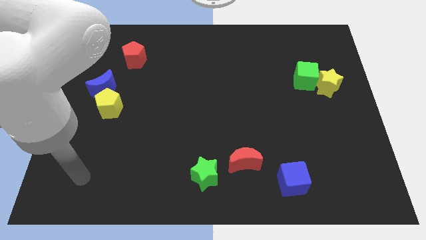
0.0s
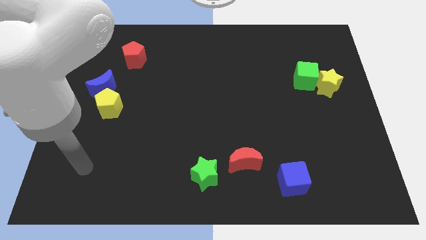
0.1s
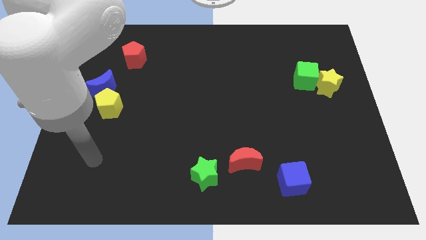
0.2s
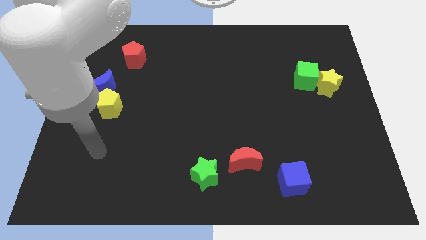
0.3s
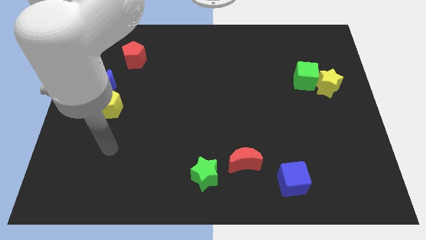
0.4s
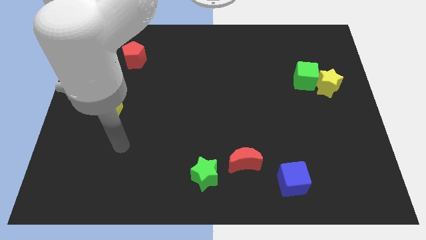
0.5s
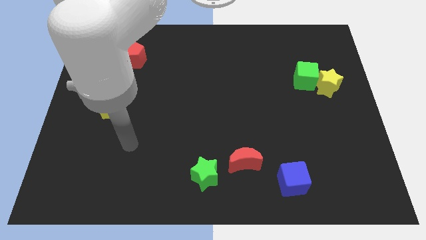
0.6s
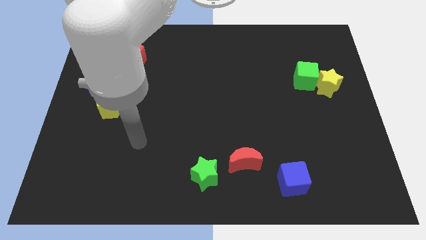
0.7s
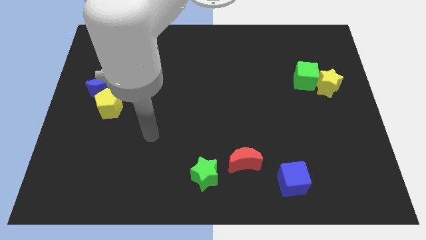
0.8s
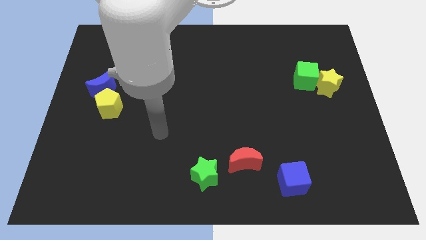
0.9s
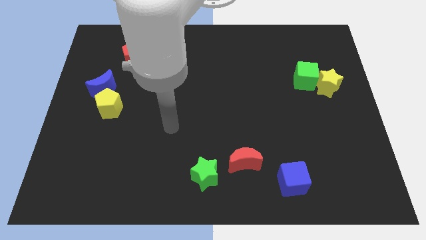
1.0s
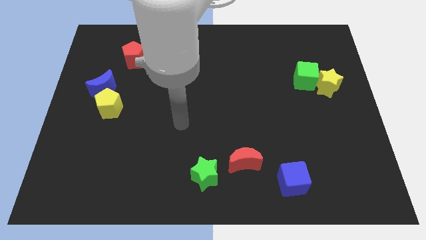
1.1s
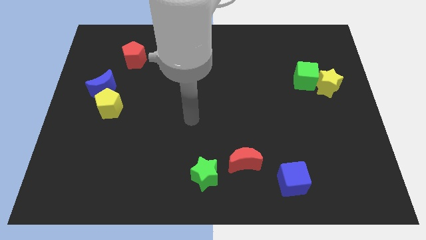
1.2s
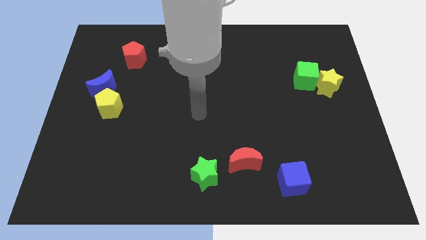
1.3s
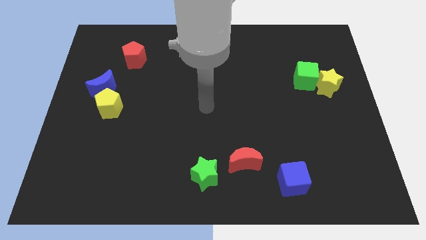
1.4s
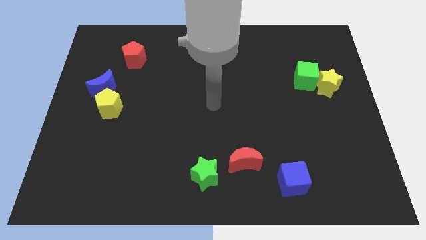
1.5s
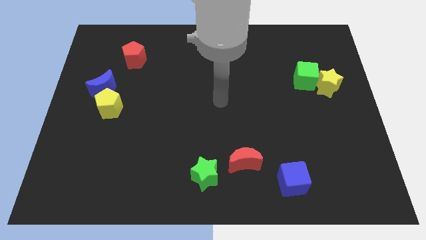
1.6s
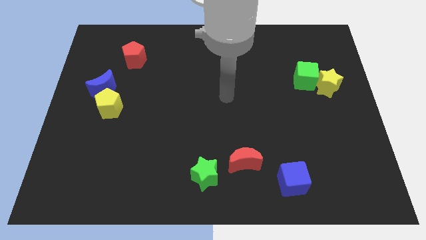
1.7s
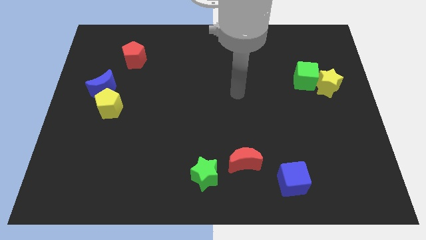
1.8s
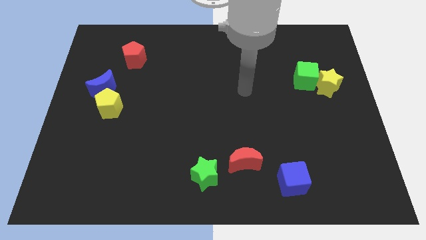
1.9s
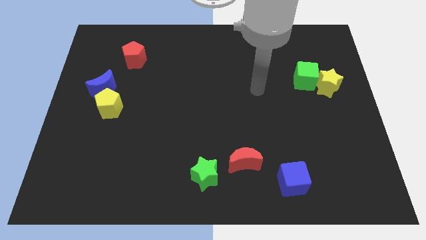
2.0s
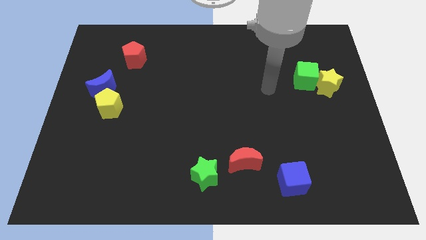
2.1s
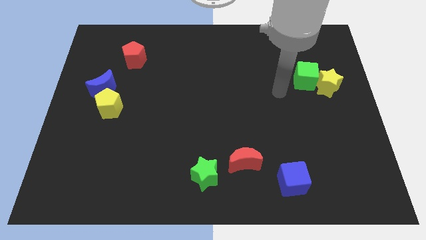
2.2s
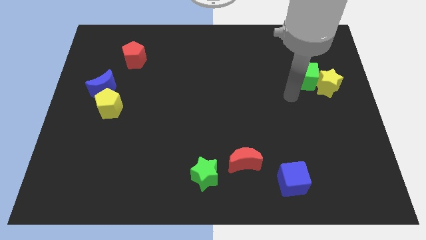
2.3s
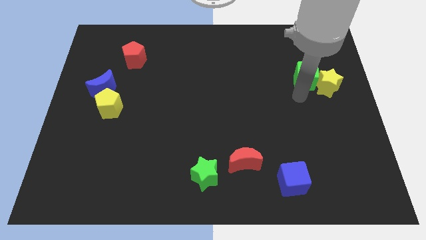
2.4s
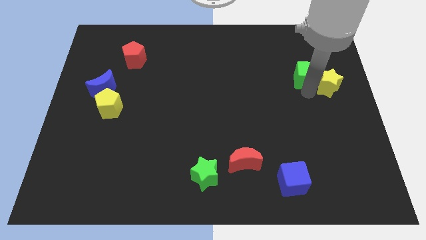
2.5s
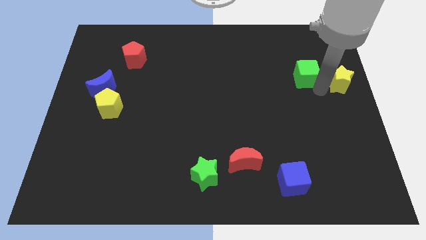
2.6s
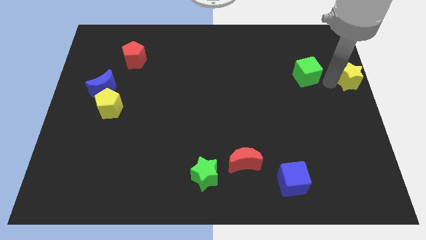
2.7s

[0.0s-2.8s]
pull the green cube apart from the yellow star

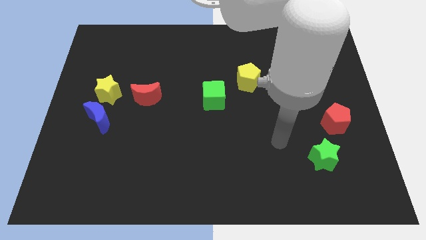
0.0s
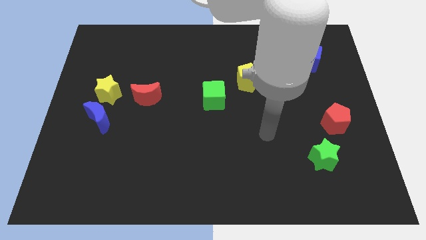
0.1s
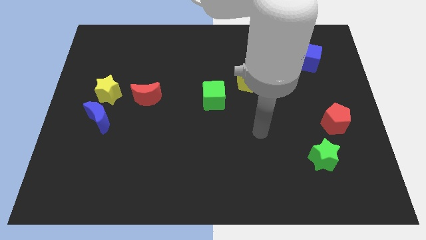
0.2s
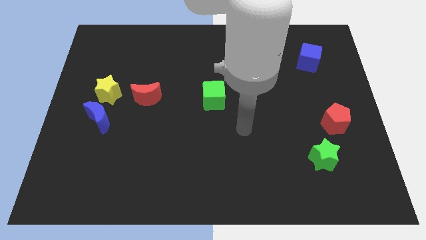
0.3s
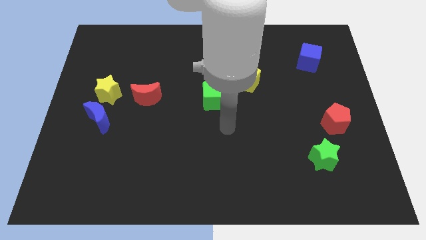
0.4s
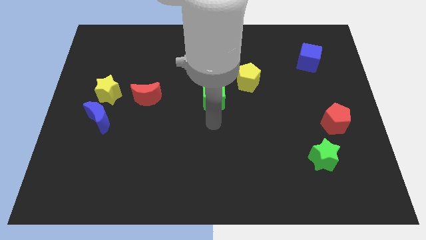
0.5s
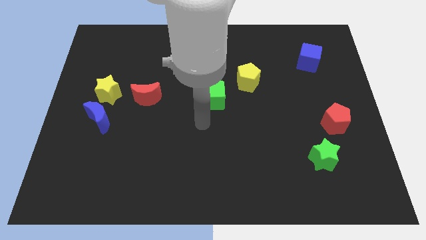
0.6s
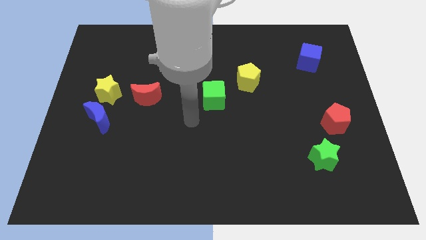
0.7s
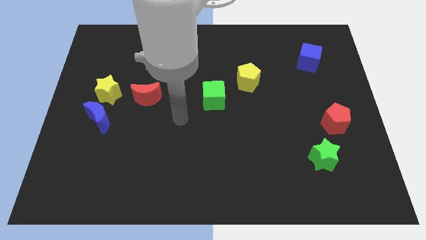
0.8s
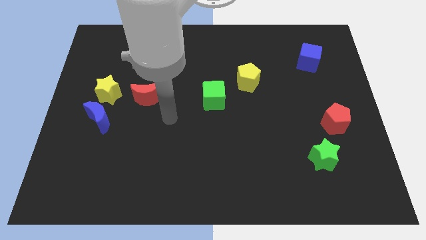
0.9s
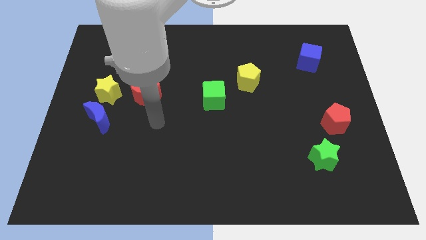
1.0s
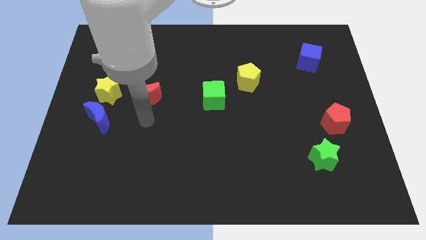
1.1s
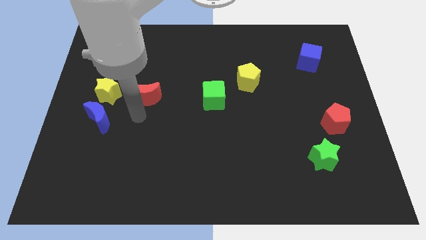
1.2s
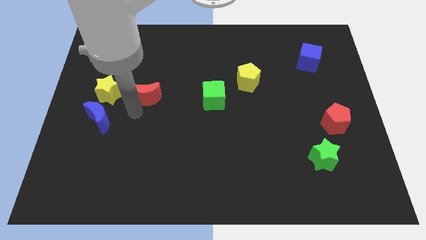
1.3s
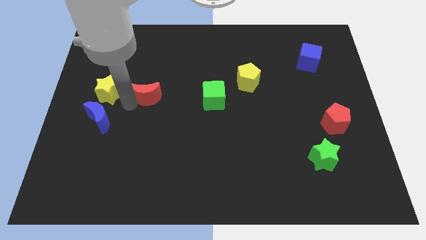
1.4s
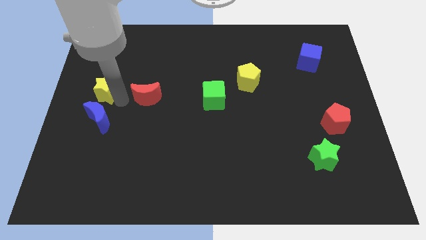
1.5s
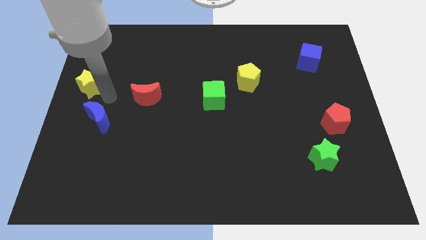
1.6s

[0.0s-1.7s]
separate the blue moon from the yellow star

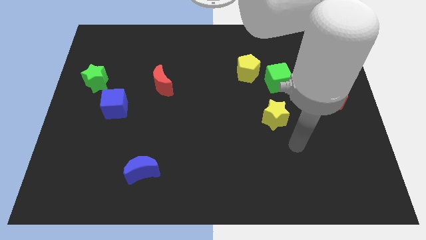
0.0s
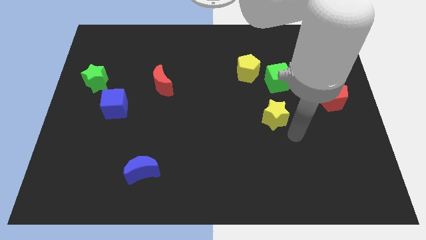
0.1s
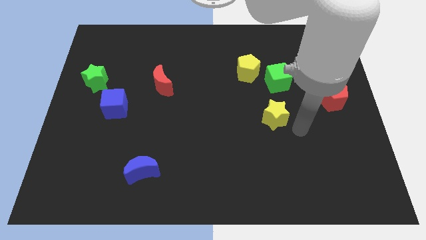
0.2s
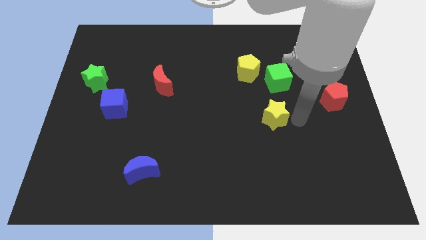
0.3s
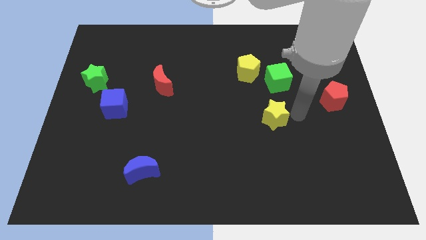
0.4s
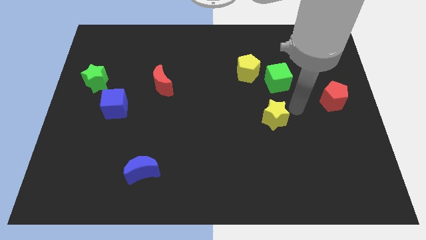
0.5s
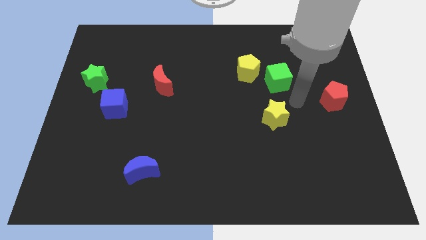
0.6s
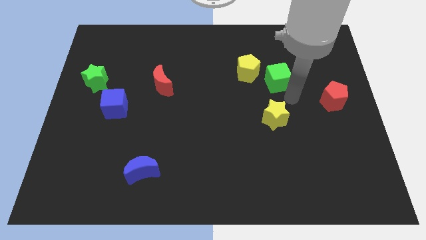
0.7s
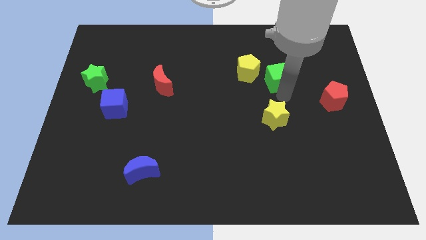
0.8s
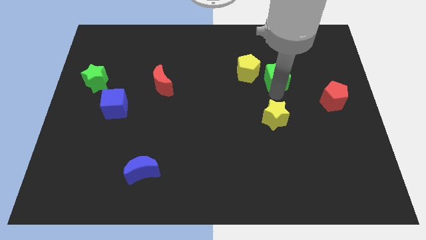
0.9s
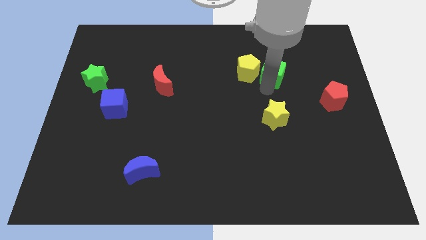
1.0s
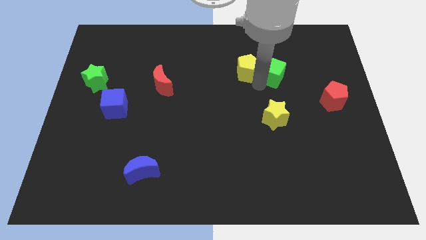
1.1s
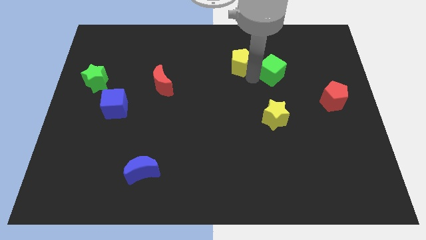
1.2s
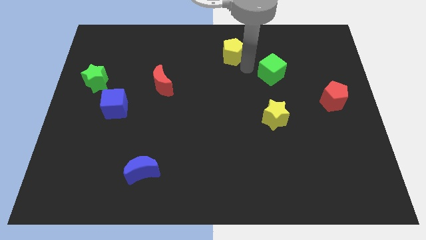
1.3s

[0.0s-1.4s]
separate the green cube from the yellow pentagon

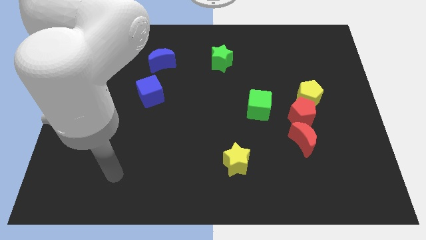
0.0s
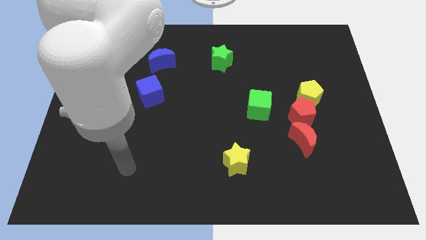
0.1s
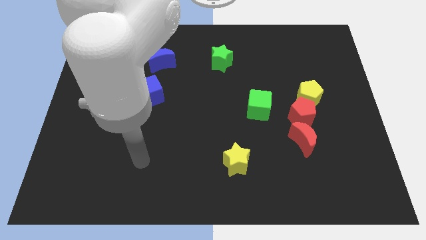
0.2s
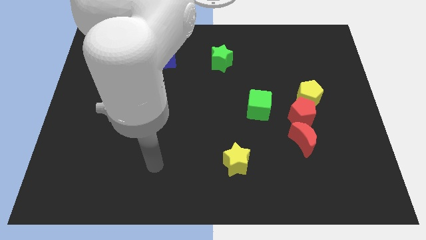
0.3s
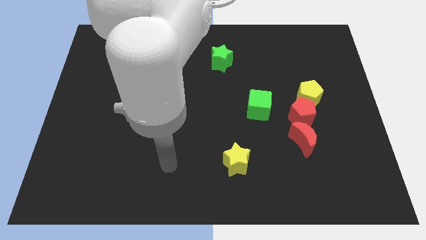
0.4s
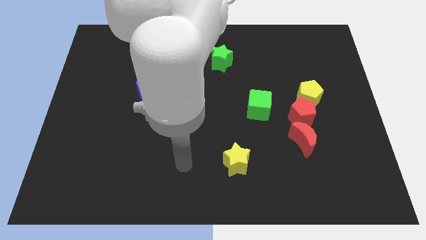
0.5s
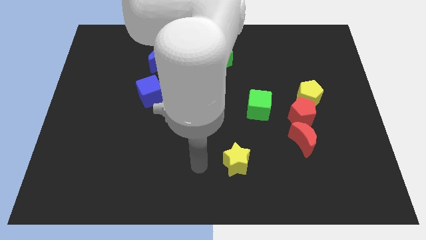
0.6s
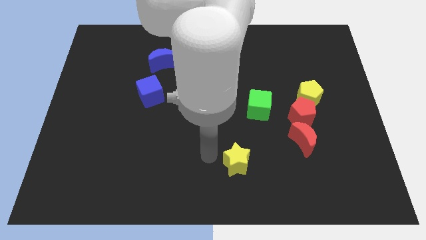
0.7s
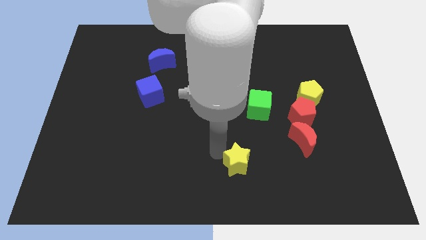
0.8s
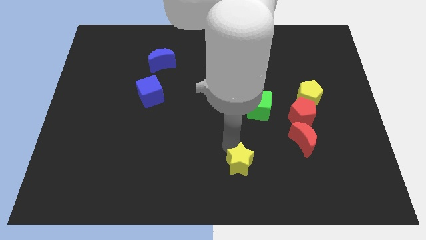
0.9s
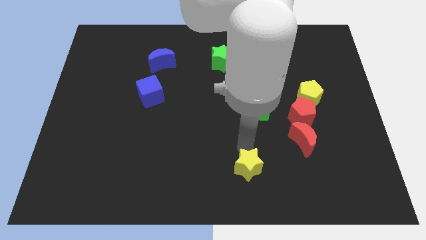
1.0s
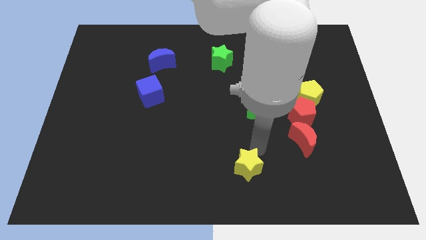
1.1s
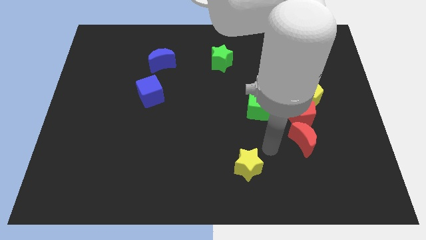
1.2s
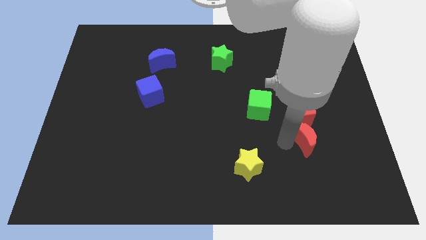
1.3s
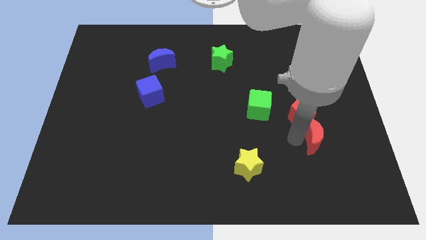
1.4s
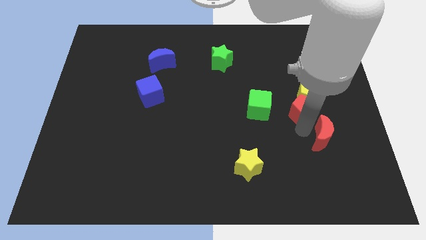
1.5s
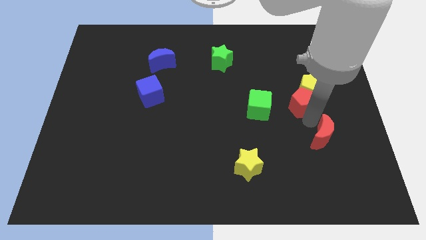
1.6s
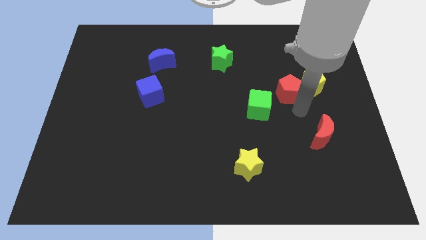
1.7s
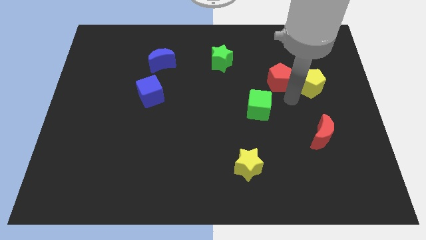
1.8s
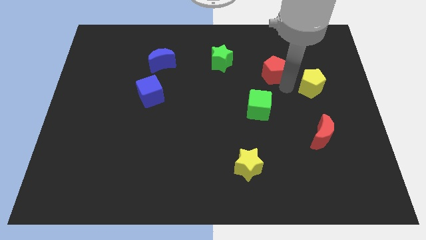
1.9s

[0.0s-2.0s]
move the yellow pentagon away from the red pentagon

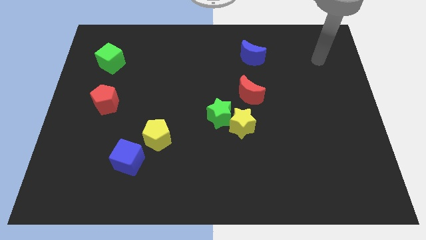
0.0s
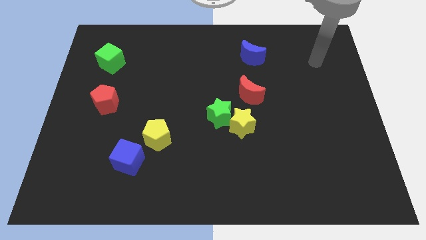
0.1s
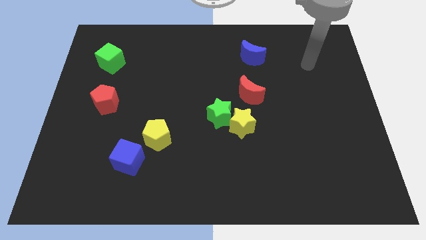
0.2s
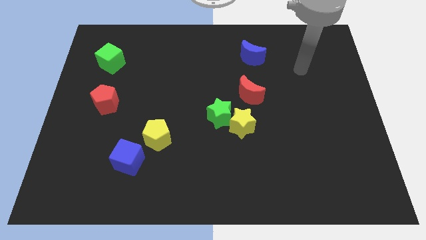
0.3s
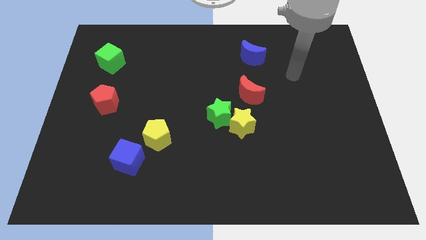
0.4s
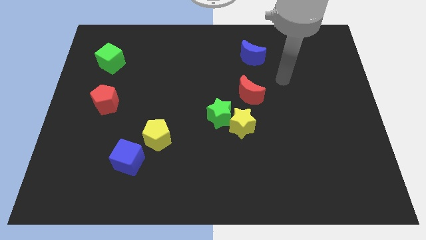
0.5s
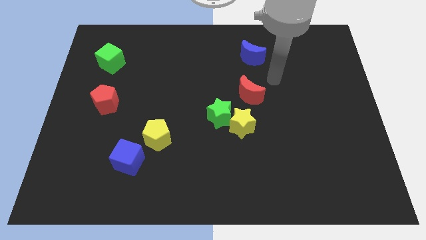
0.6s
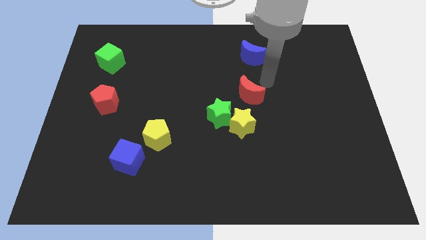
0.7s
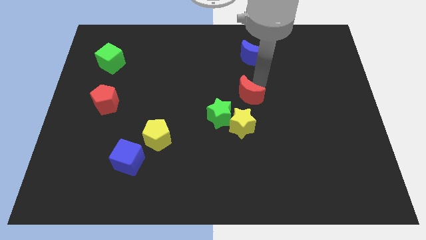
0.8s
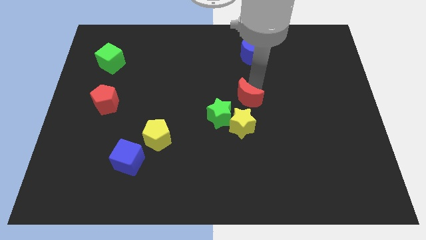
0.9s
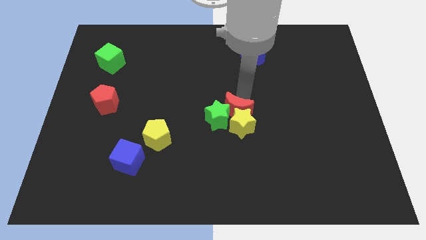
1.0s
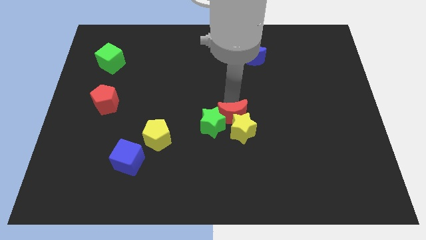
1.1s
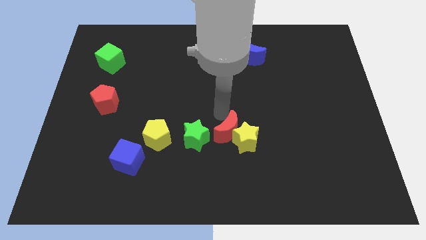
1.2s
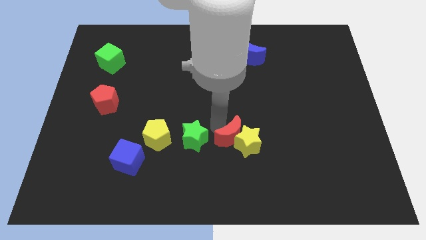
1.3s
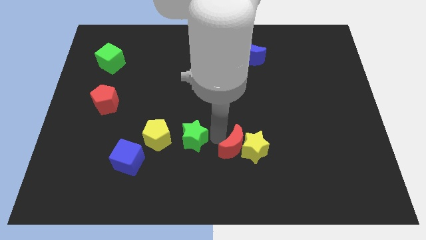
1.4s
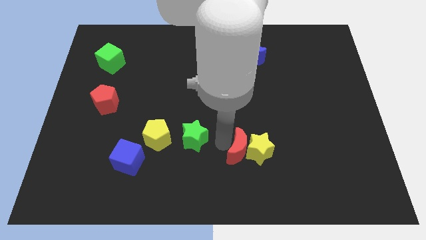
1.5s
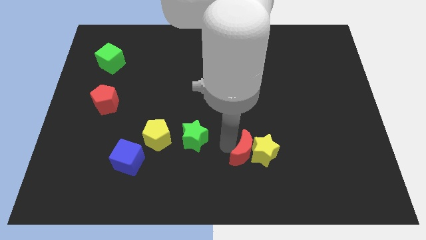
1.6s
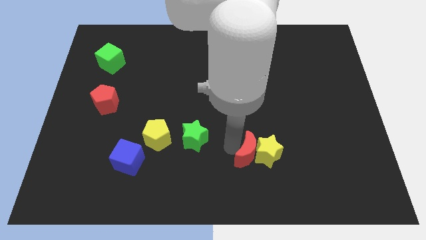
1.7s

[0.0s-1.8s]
separate the yellow star from the green star and red moon
